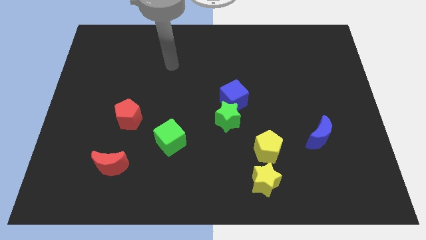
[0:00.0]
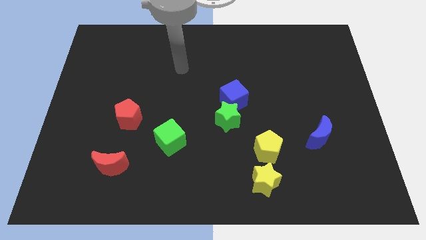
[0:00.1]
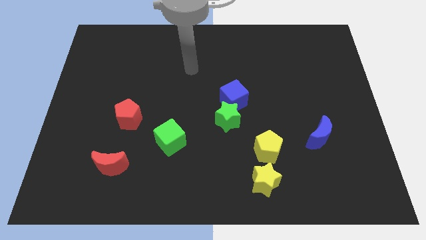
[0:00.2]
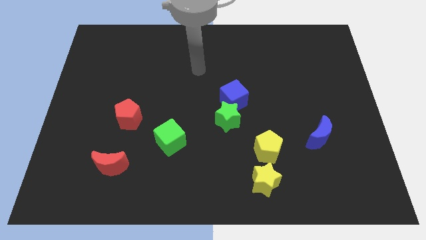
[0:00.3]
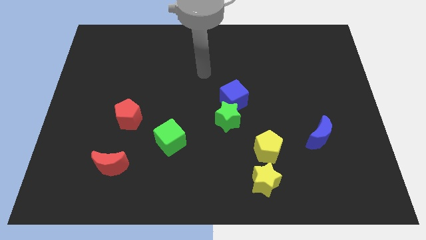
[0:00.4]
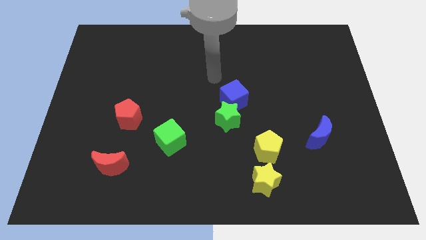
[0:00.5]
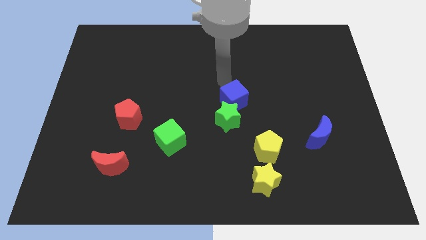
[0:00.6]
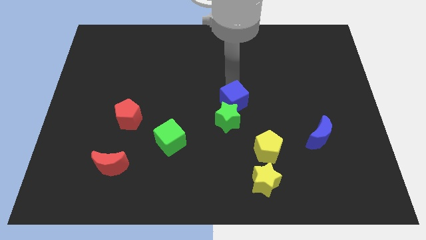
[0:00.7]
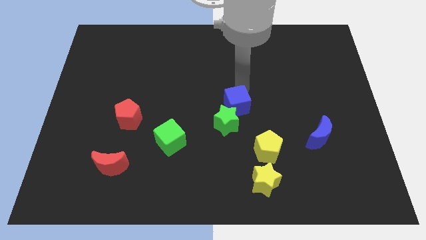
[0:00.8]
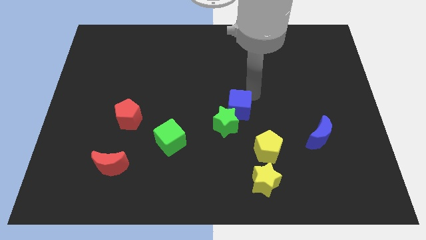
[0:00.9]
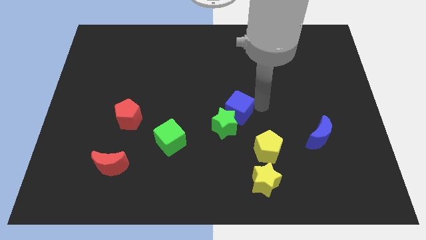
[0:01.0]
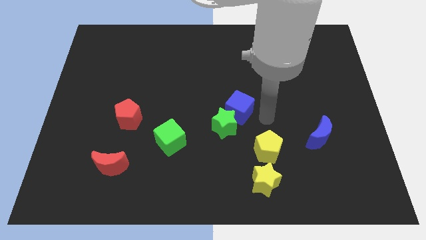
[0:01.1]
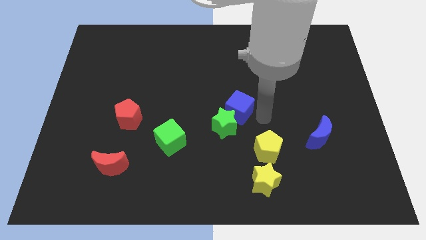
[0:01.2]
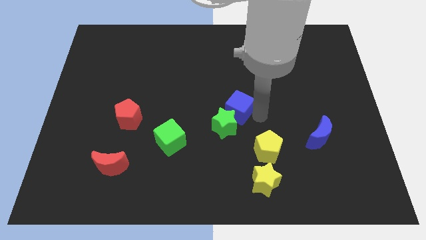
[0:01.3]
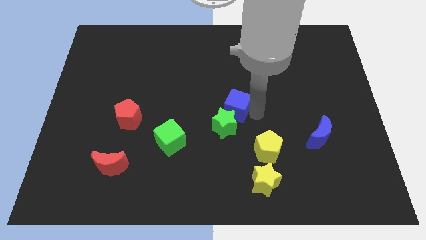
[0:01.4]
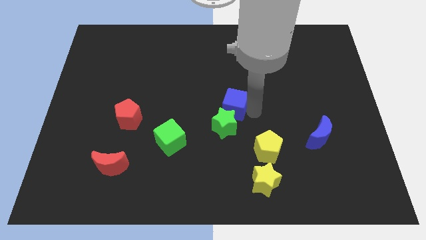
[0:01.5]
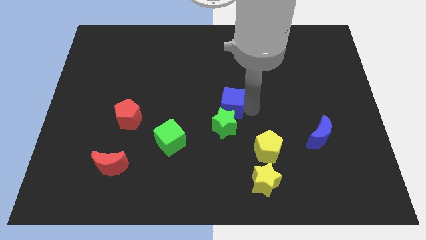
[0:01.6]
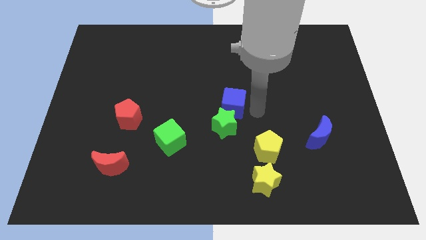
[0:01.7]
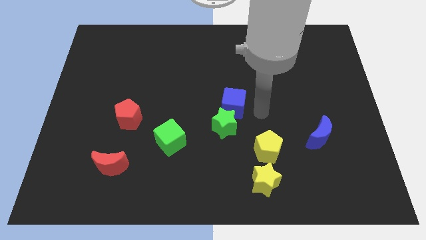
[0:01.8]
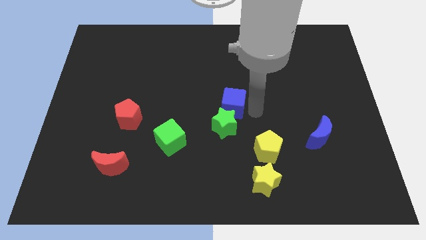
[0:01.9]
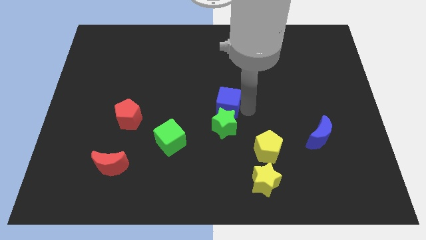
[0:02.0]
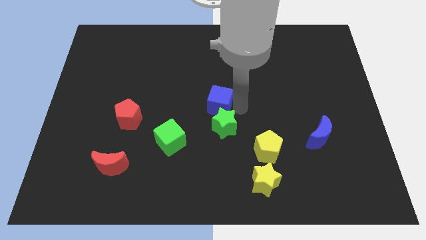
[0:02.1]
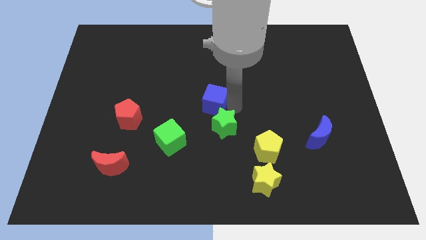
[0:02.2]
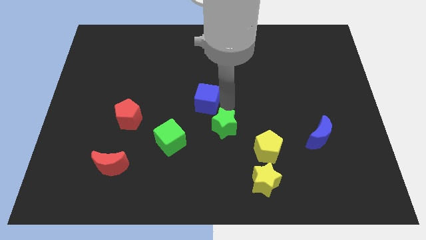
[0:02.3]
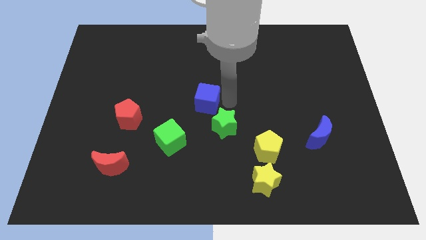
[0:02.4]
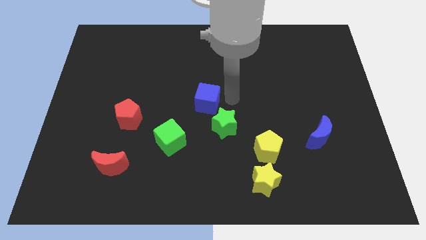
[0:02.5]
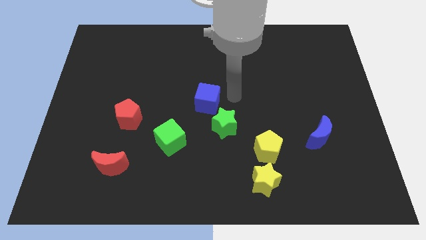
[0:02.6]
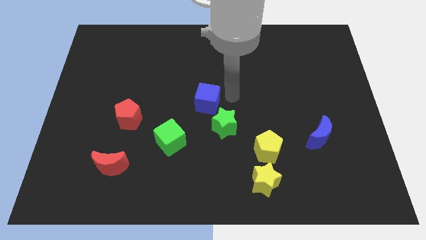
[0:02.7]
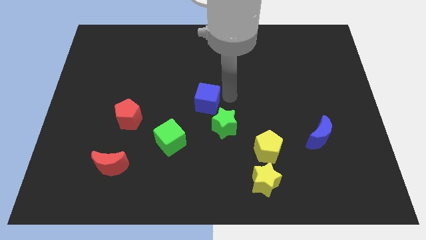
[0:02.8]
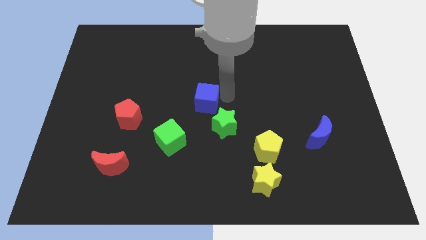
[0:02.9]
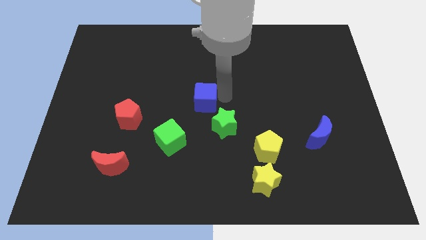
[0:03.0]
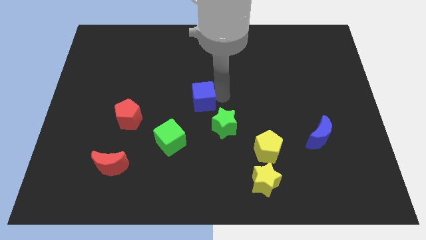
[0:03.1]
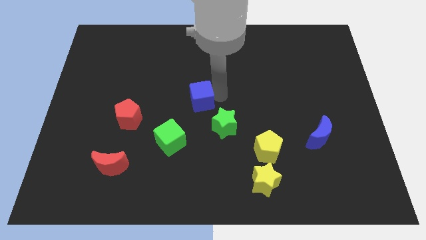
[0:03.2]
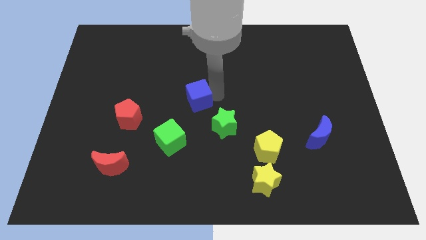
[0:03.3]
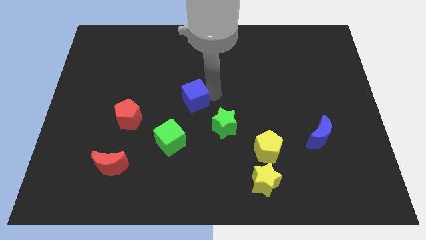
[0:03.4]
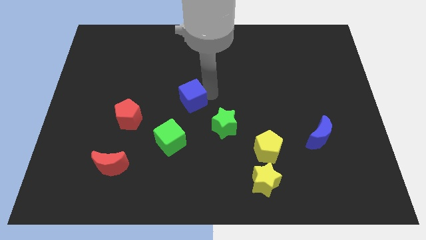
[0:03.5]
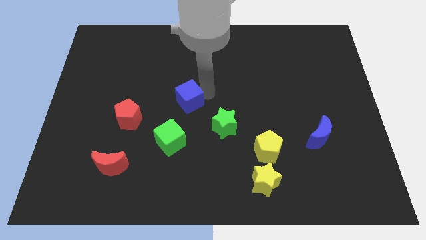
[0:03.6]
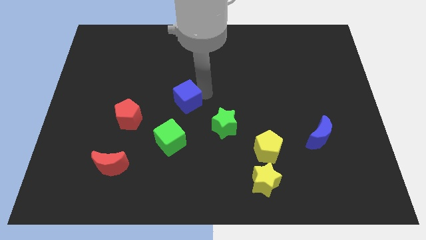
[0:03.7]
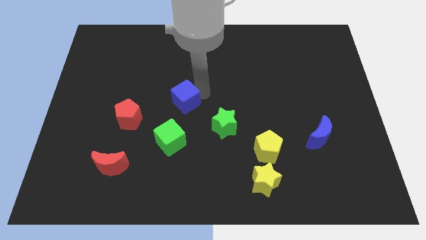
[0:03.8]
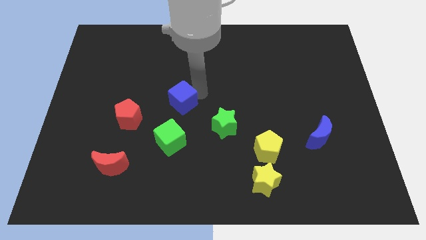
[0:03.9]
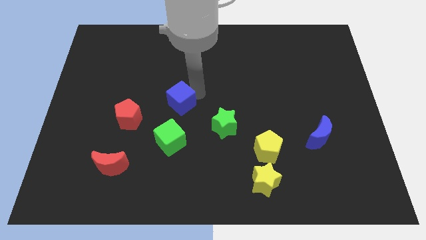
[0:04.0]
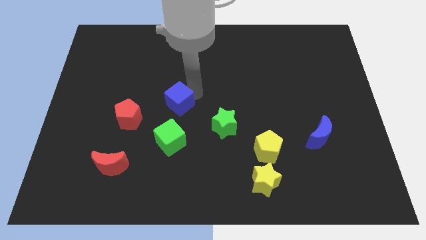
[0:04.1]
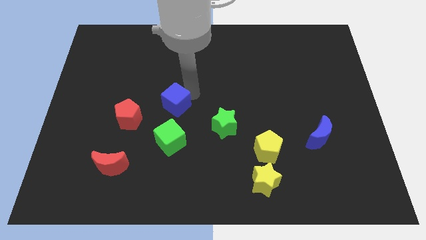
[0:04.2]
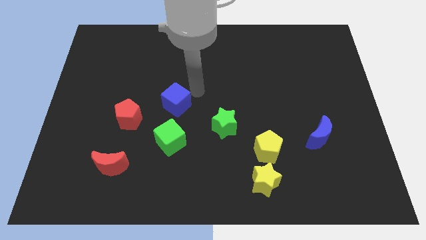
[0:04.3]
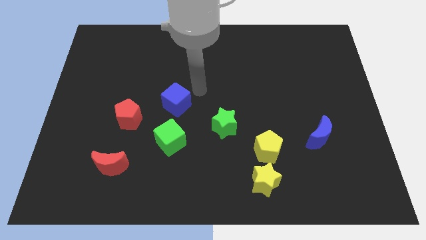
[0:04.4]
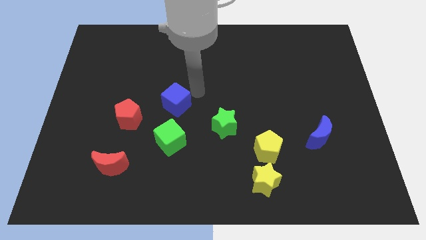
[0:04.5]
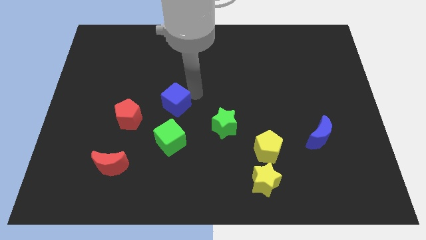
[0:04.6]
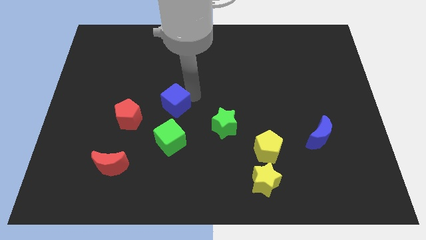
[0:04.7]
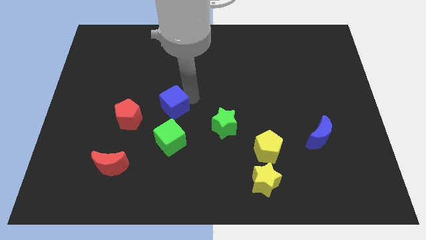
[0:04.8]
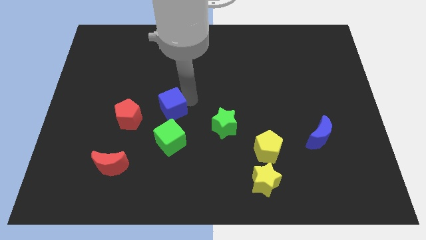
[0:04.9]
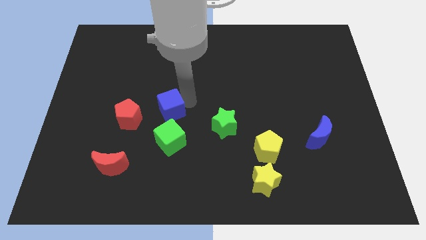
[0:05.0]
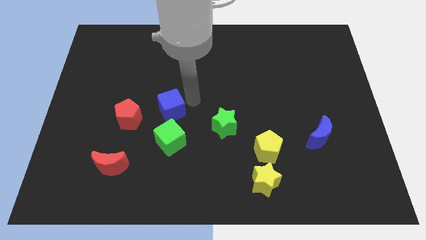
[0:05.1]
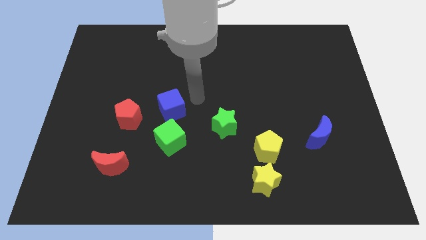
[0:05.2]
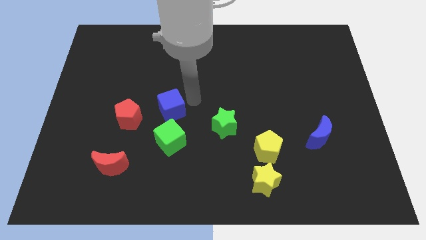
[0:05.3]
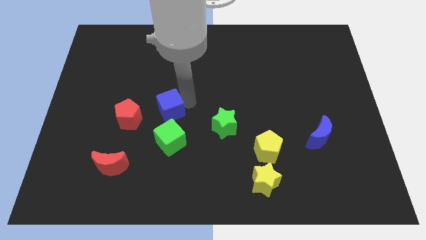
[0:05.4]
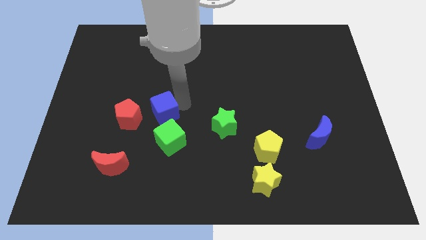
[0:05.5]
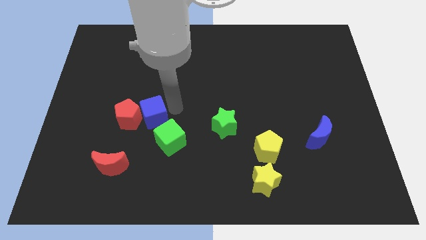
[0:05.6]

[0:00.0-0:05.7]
move the blue cube towards the red pentagon

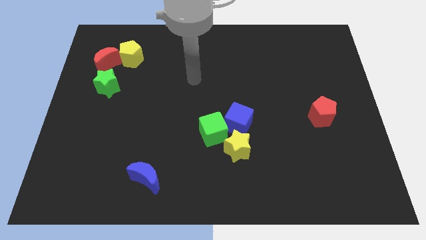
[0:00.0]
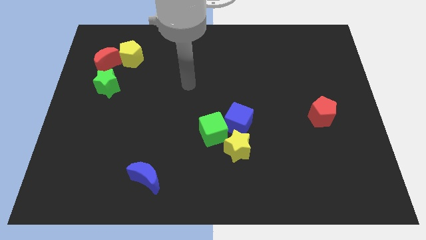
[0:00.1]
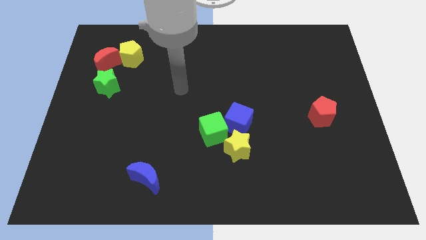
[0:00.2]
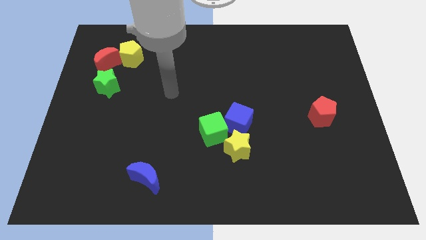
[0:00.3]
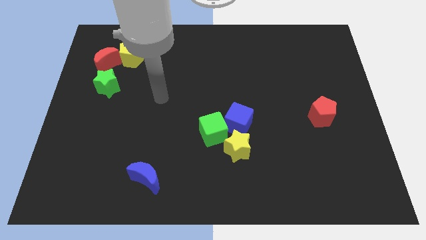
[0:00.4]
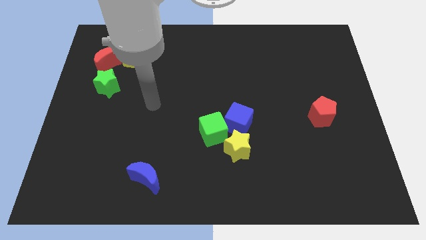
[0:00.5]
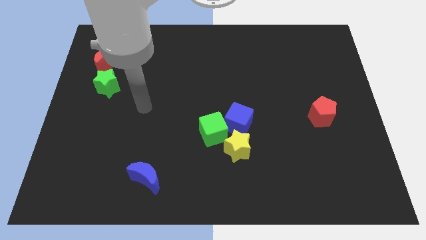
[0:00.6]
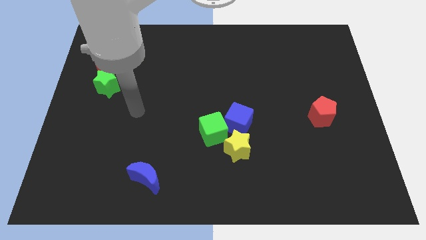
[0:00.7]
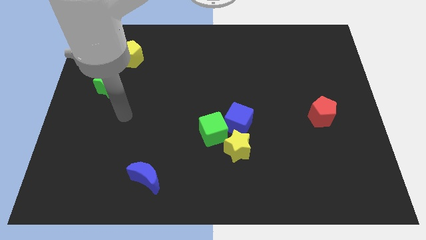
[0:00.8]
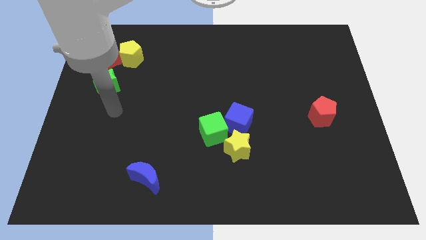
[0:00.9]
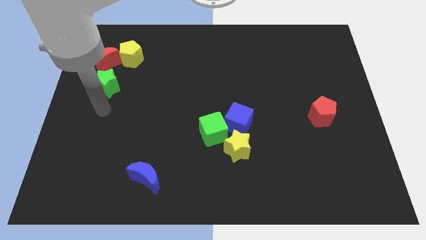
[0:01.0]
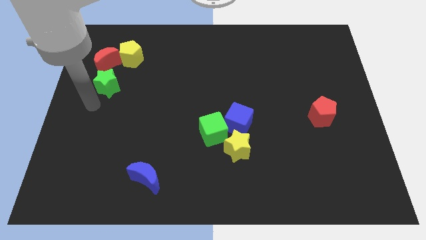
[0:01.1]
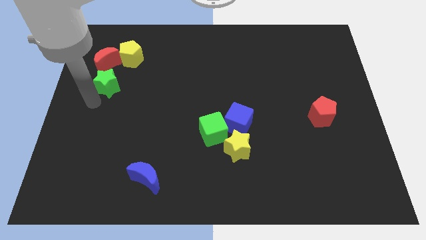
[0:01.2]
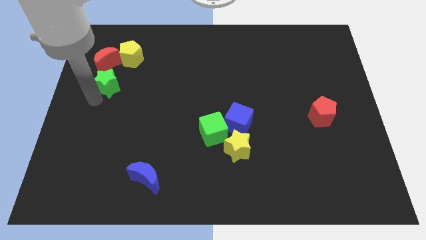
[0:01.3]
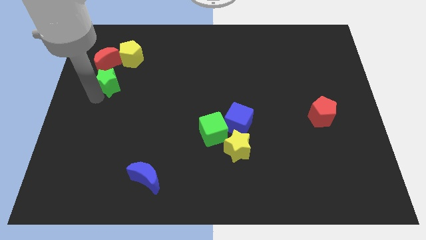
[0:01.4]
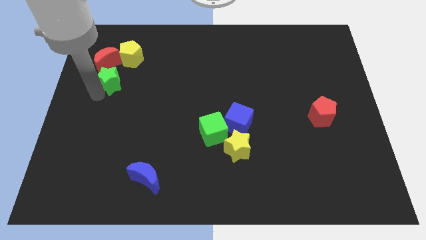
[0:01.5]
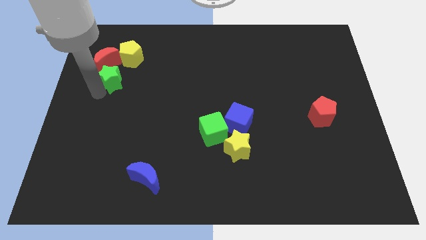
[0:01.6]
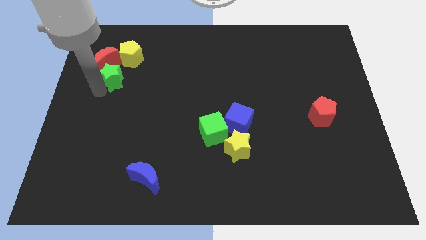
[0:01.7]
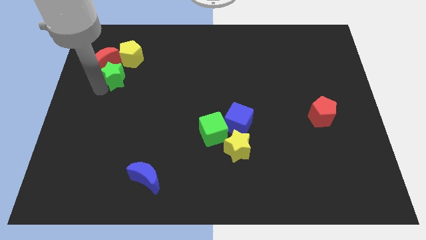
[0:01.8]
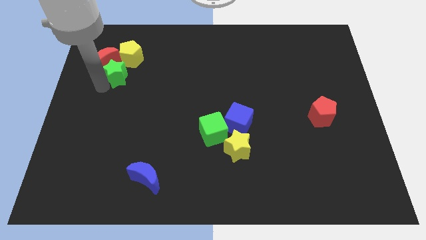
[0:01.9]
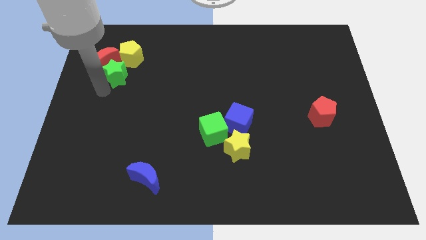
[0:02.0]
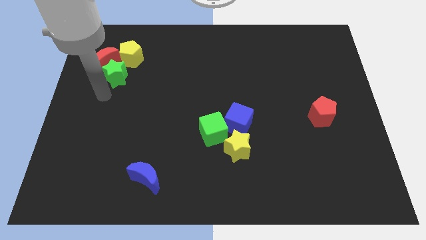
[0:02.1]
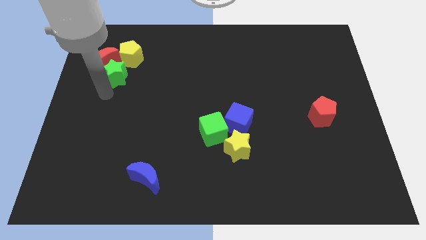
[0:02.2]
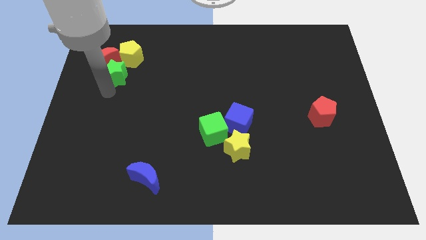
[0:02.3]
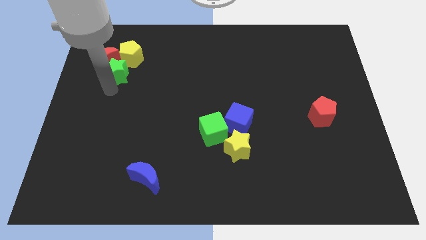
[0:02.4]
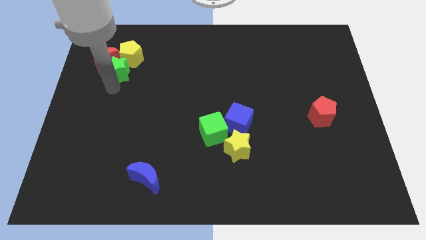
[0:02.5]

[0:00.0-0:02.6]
put the green star to the yellow pentagon
